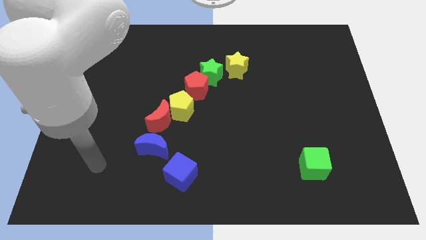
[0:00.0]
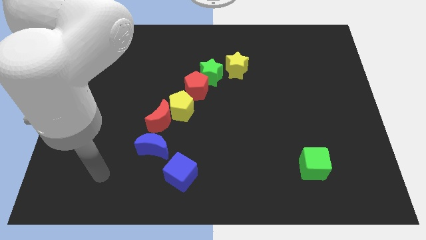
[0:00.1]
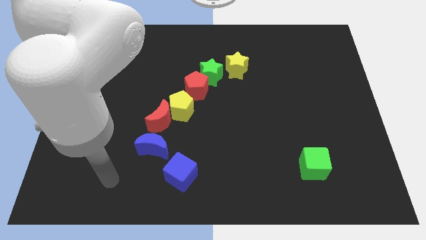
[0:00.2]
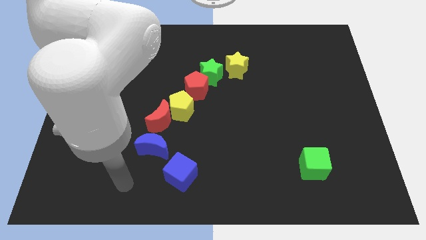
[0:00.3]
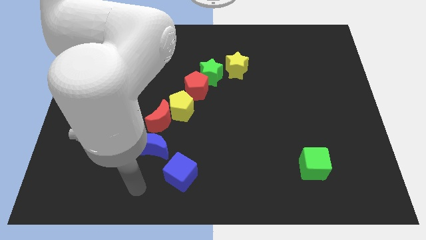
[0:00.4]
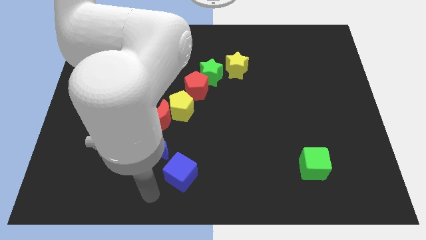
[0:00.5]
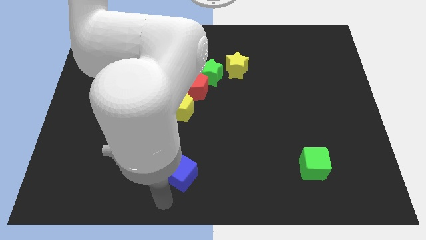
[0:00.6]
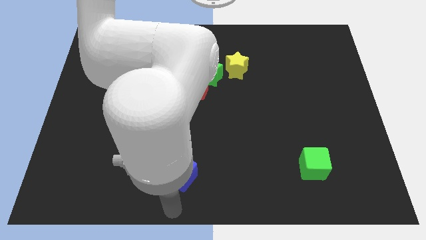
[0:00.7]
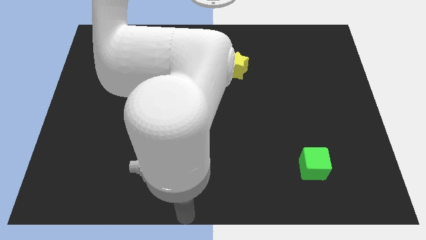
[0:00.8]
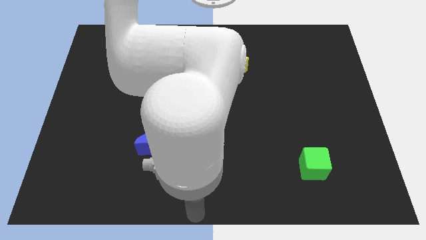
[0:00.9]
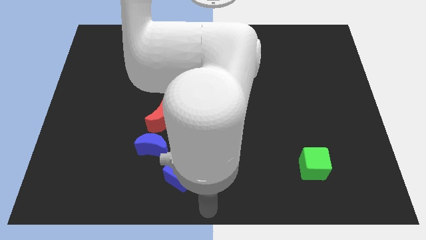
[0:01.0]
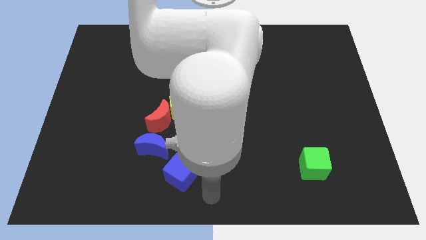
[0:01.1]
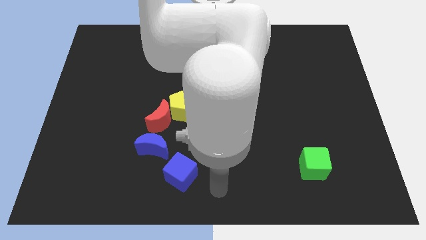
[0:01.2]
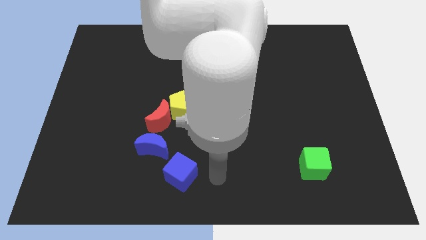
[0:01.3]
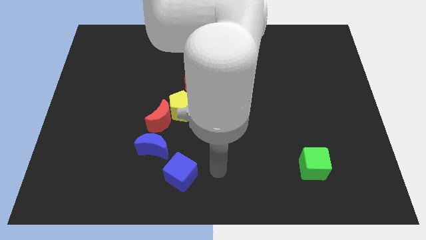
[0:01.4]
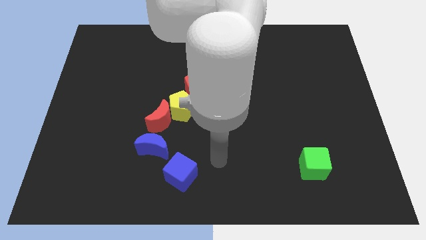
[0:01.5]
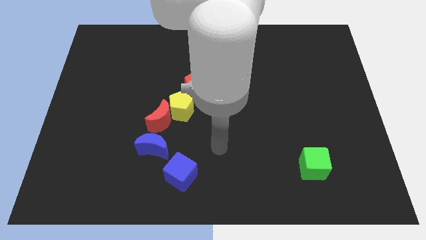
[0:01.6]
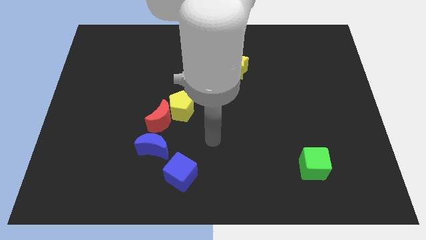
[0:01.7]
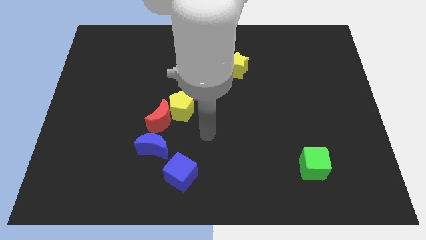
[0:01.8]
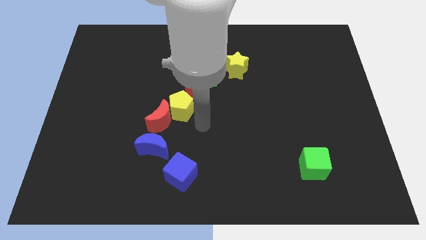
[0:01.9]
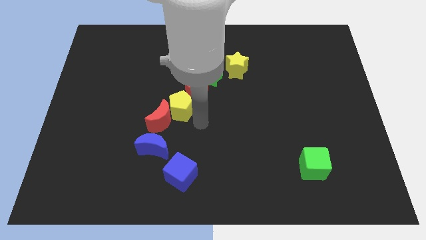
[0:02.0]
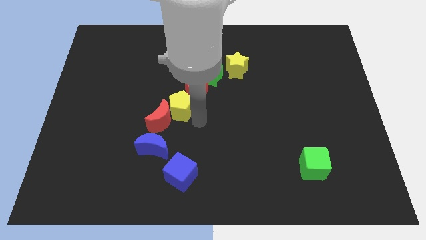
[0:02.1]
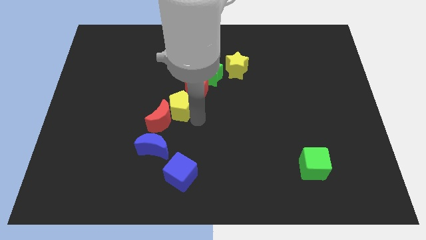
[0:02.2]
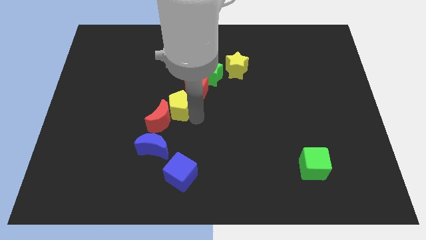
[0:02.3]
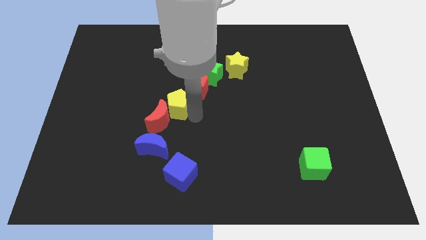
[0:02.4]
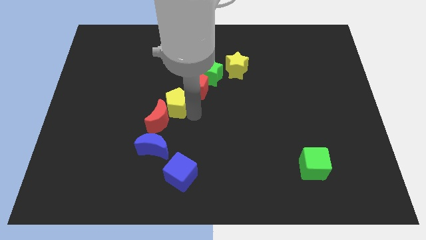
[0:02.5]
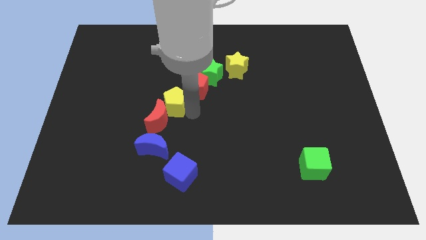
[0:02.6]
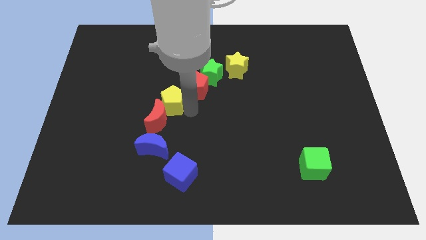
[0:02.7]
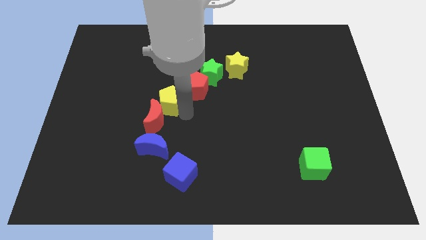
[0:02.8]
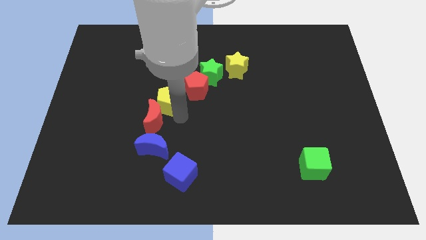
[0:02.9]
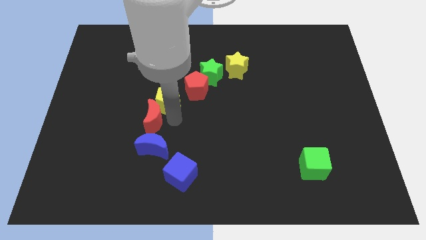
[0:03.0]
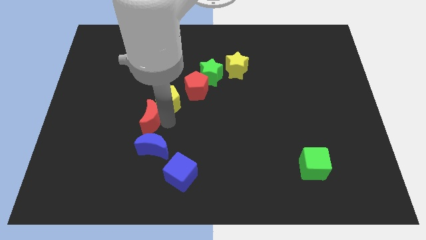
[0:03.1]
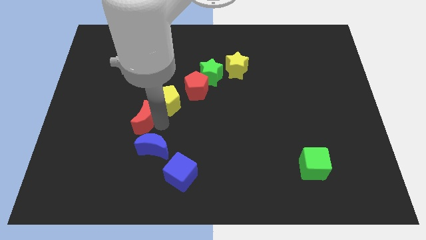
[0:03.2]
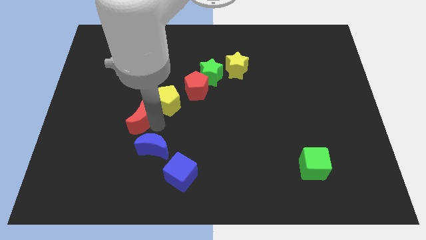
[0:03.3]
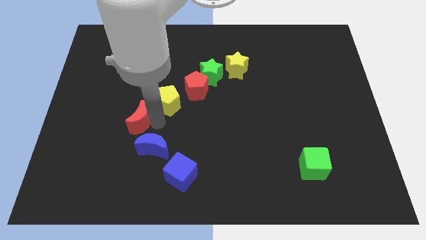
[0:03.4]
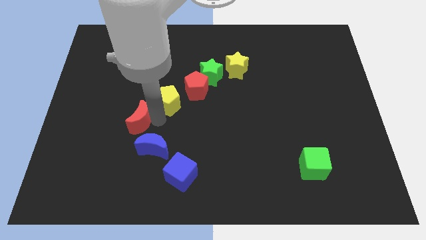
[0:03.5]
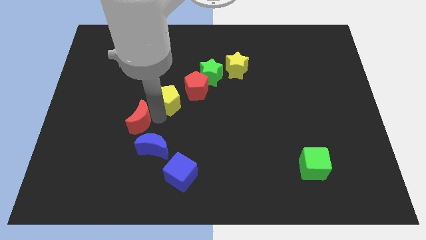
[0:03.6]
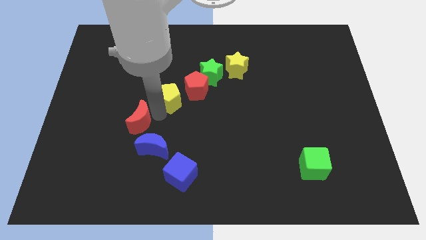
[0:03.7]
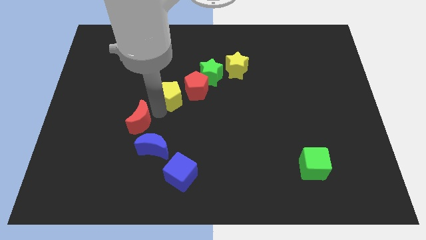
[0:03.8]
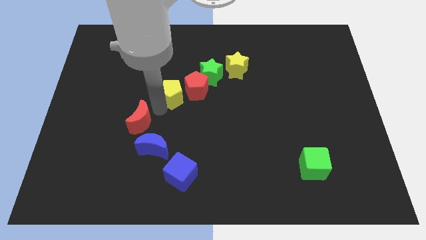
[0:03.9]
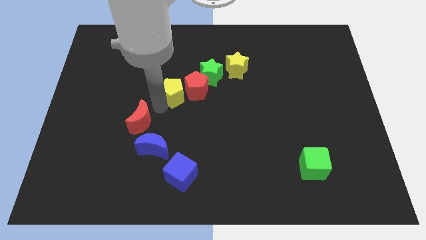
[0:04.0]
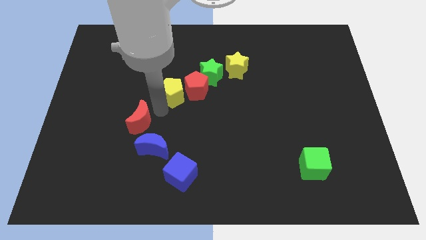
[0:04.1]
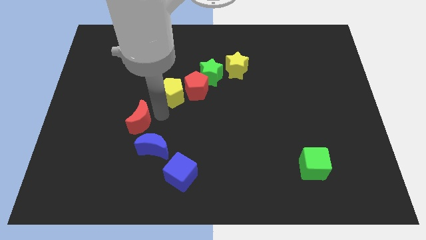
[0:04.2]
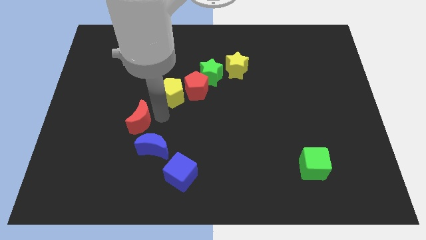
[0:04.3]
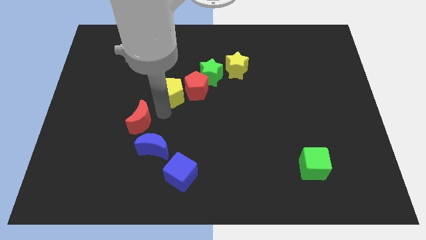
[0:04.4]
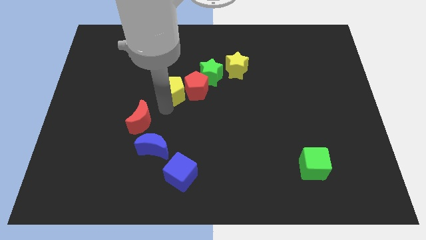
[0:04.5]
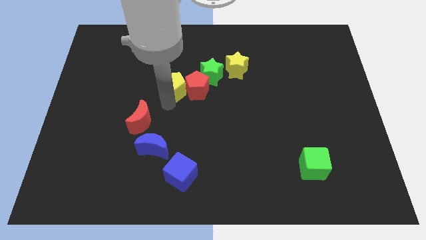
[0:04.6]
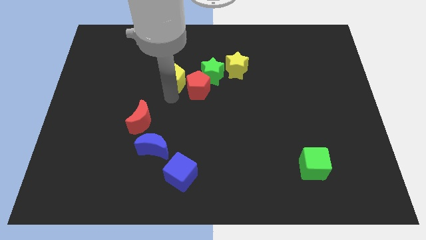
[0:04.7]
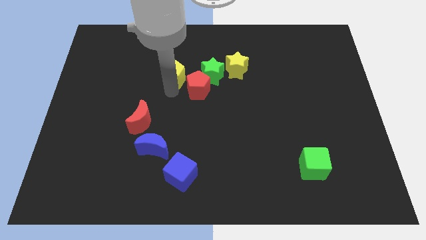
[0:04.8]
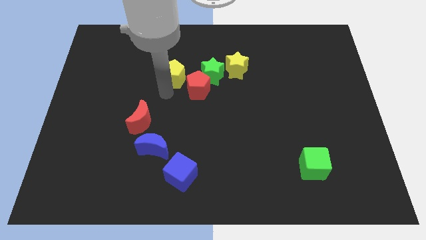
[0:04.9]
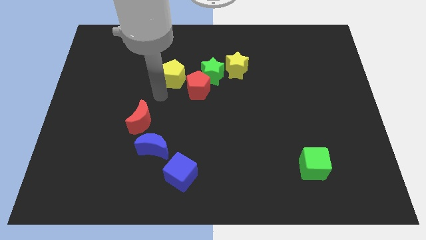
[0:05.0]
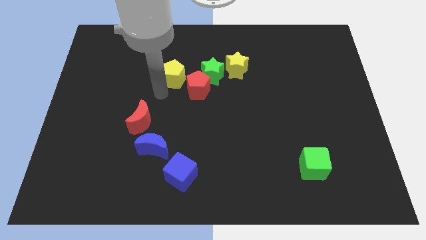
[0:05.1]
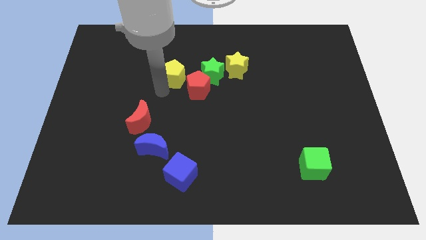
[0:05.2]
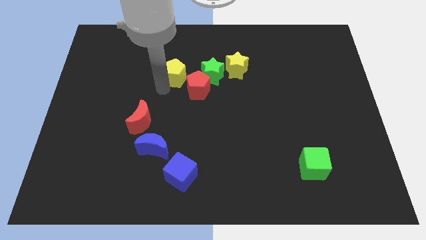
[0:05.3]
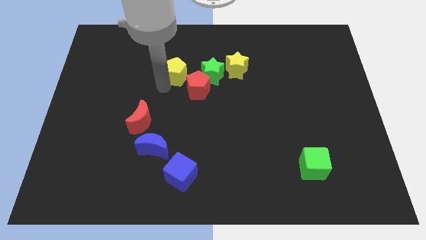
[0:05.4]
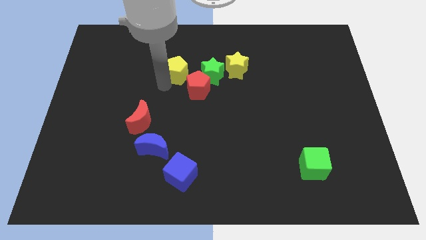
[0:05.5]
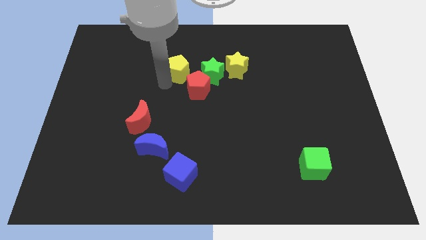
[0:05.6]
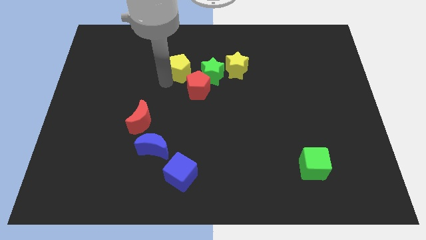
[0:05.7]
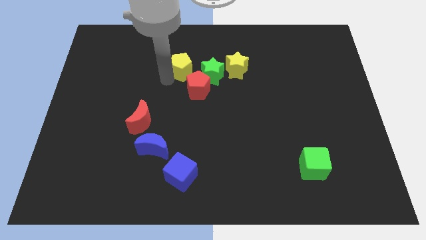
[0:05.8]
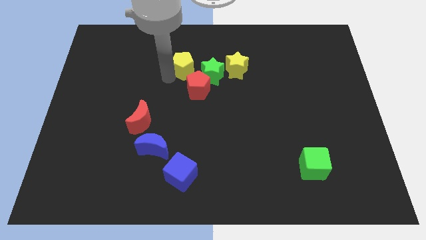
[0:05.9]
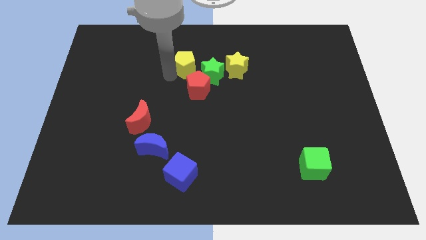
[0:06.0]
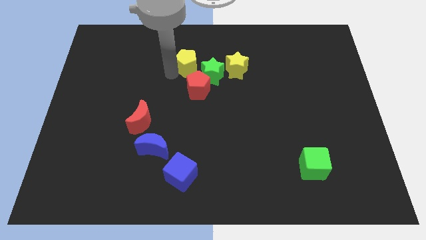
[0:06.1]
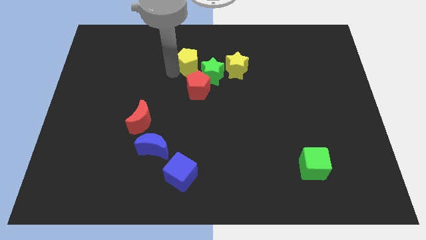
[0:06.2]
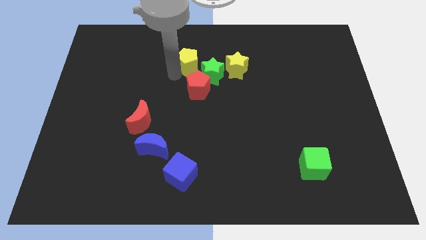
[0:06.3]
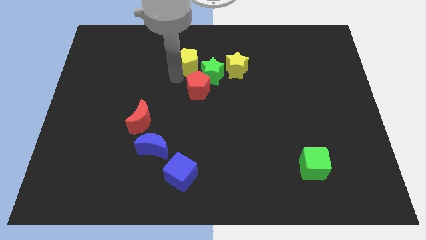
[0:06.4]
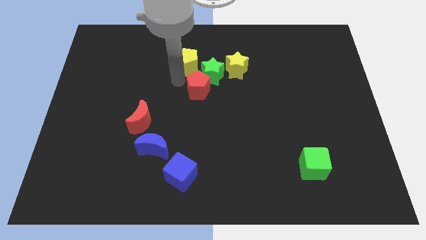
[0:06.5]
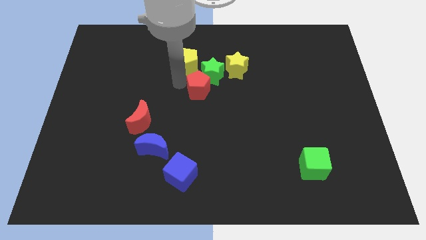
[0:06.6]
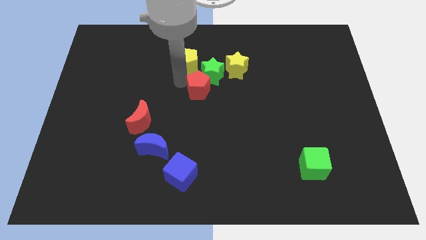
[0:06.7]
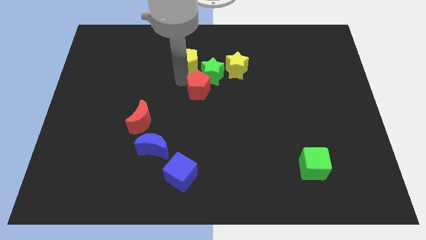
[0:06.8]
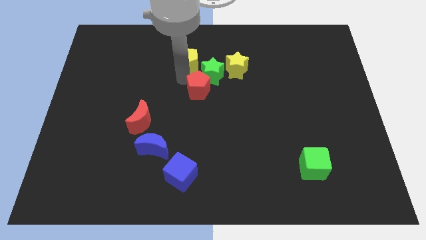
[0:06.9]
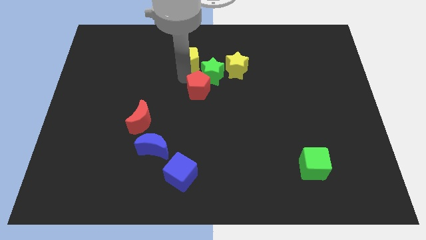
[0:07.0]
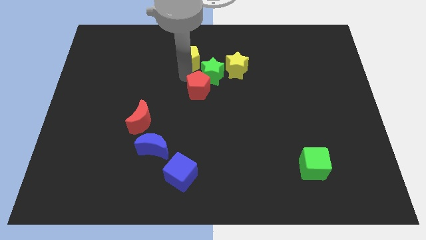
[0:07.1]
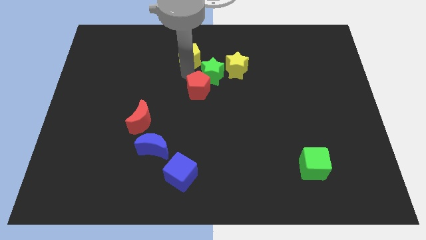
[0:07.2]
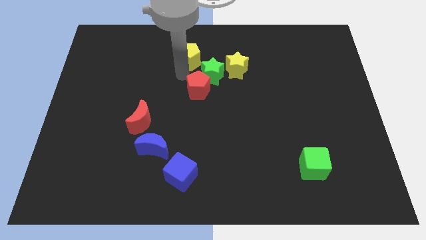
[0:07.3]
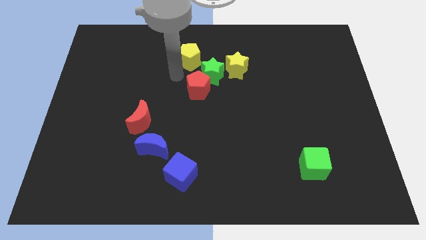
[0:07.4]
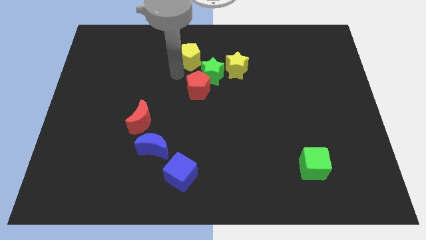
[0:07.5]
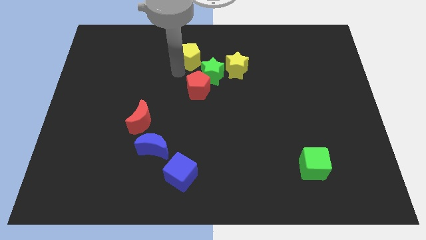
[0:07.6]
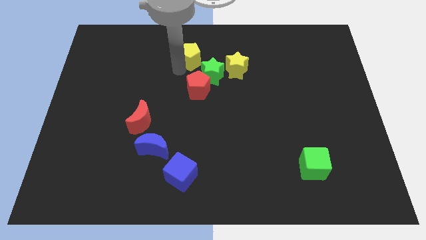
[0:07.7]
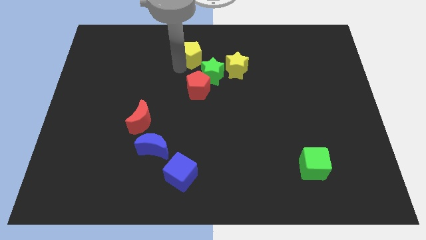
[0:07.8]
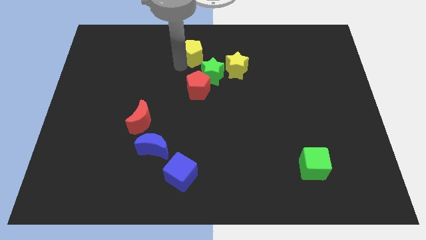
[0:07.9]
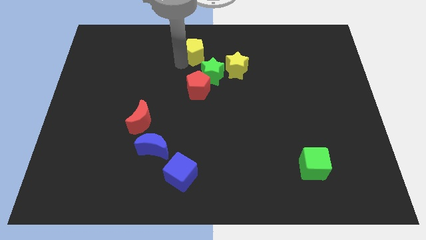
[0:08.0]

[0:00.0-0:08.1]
push the yellow pentagon to the towards your base
